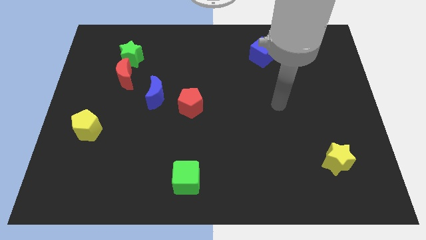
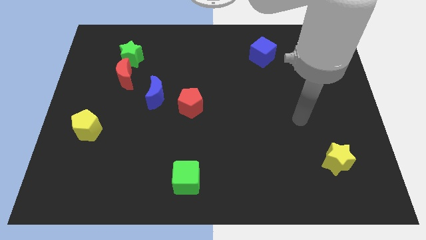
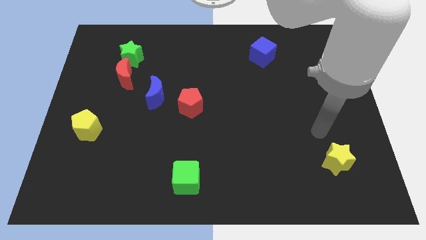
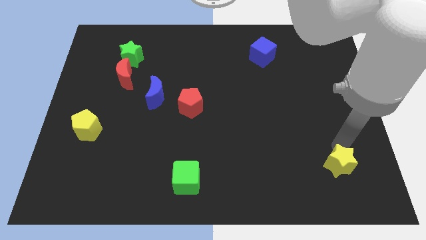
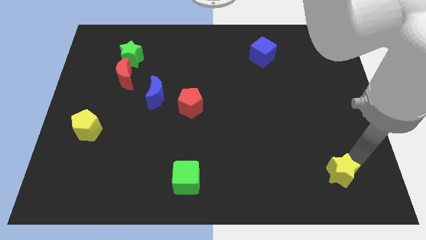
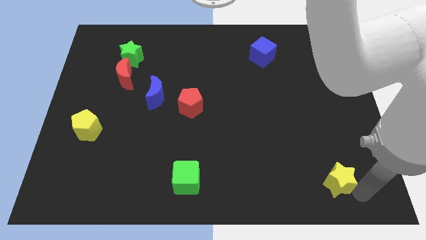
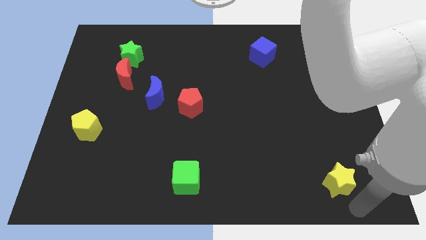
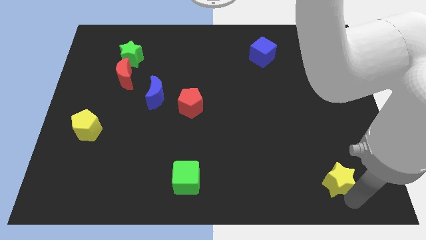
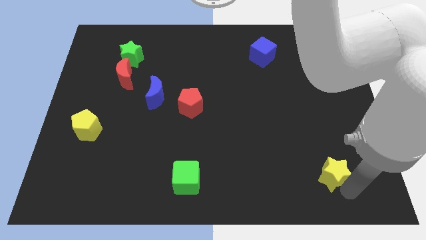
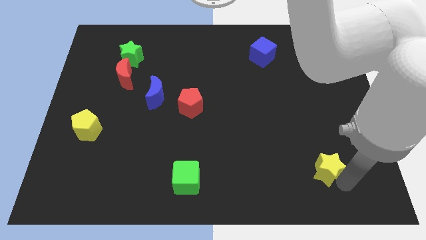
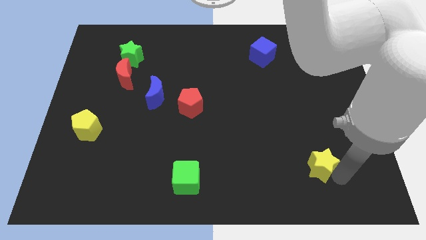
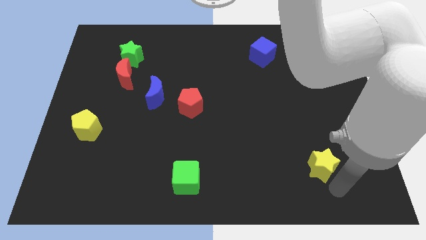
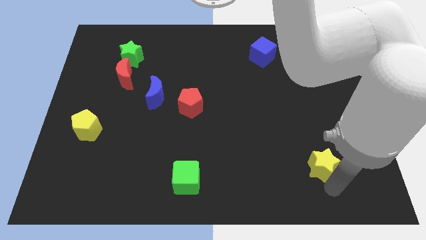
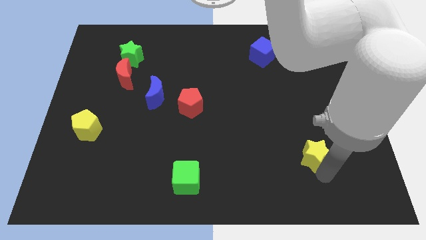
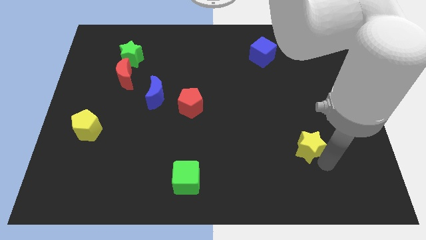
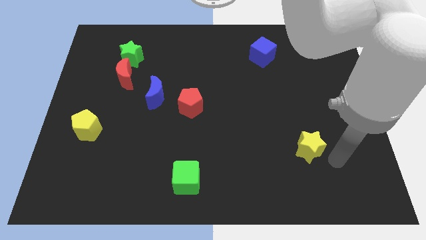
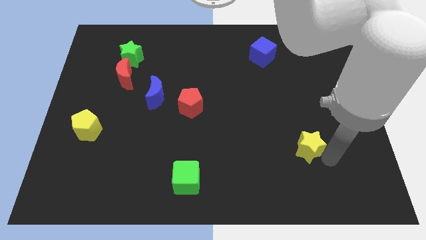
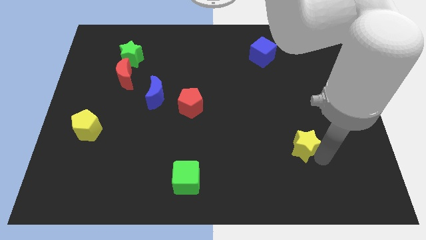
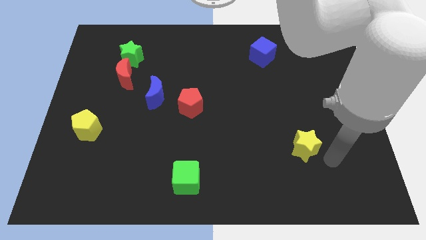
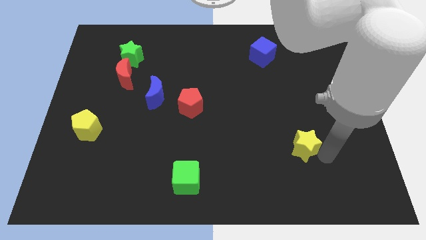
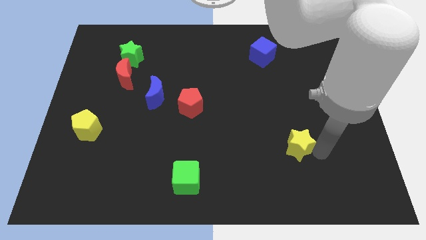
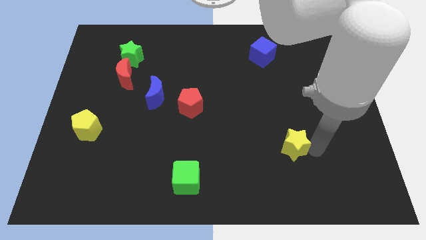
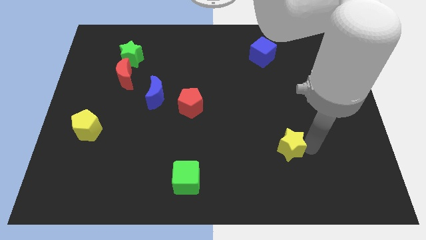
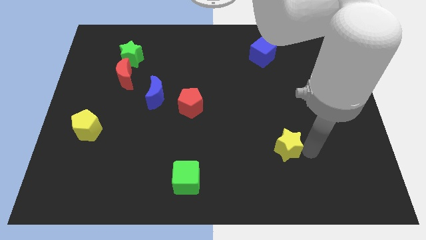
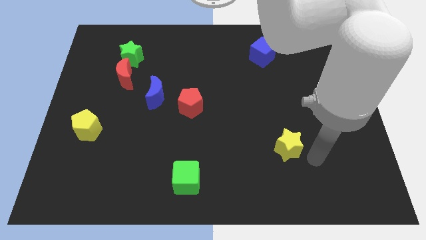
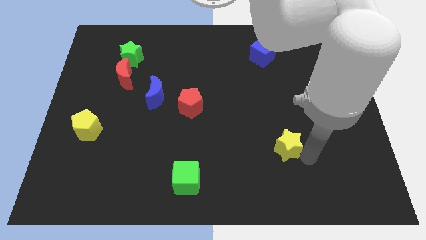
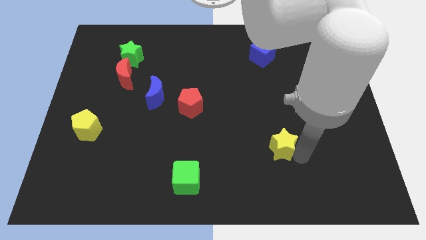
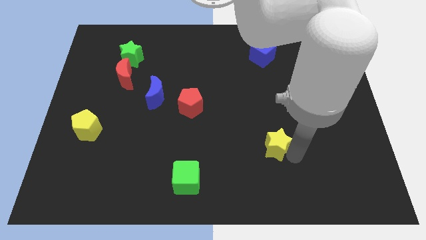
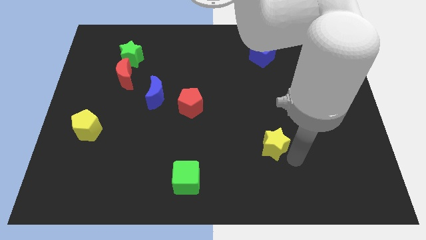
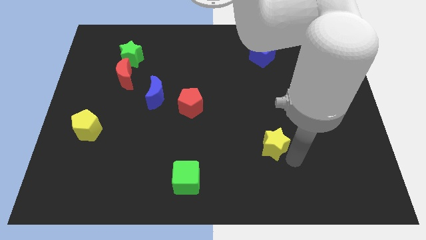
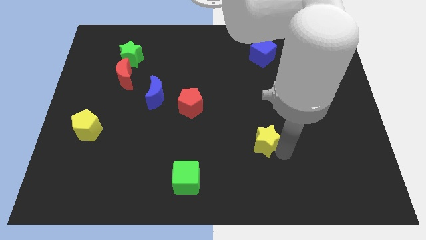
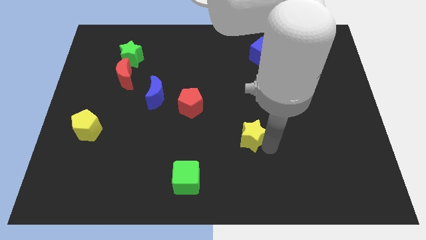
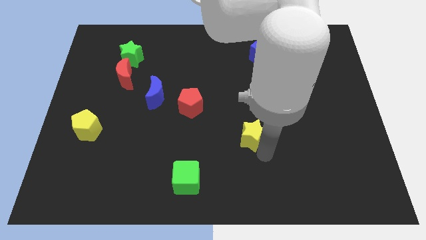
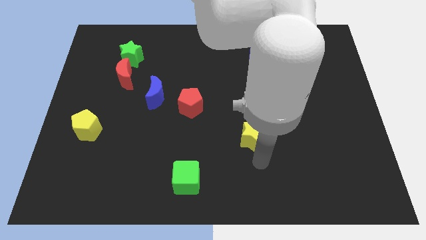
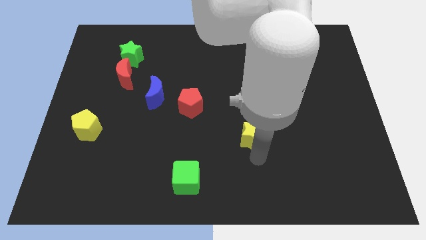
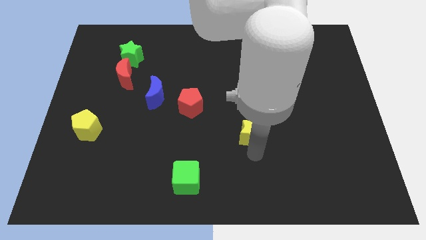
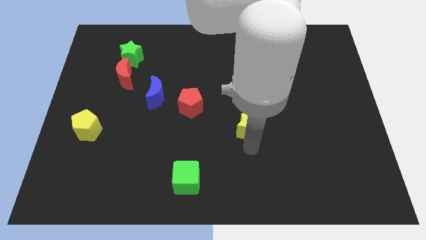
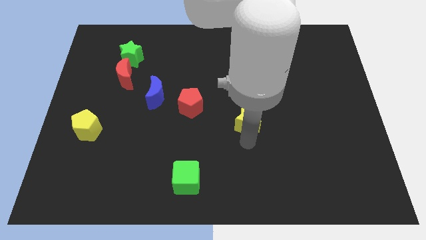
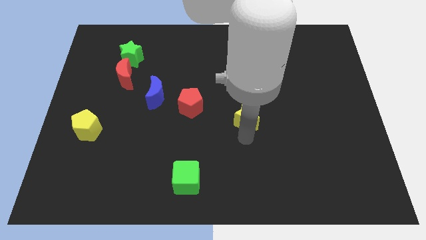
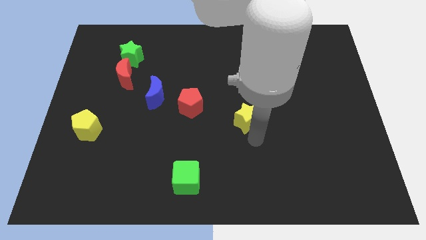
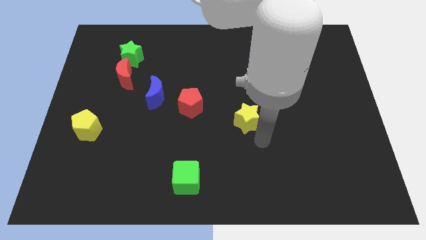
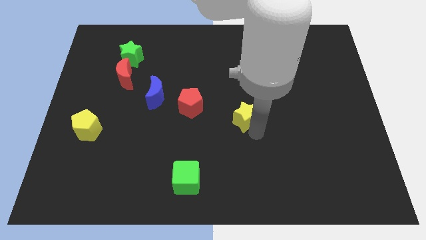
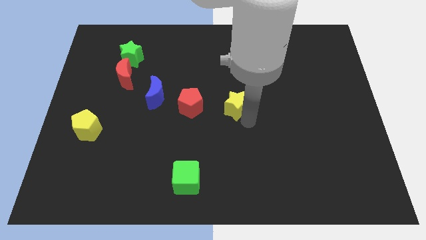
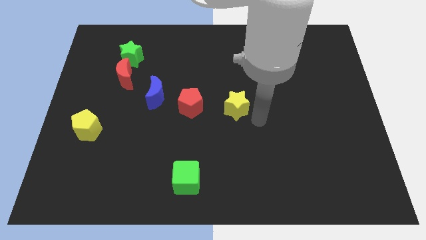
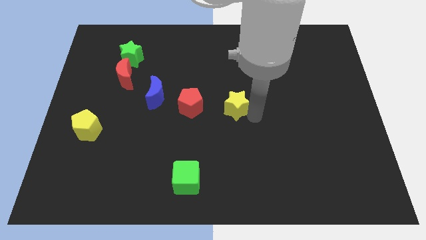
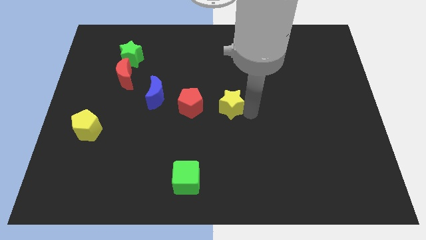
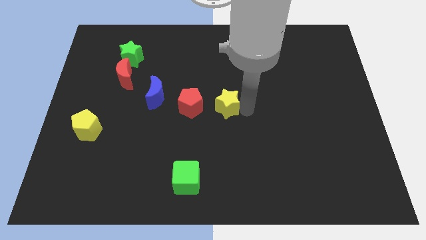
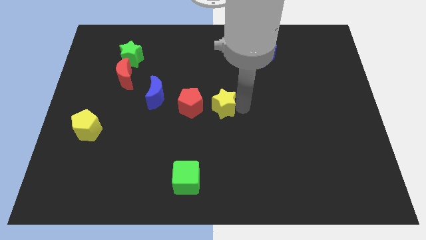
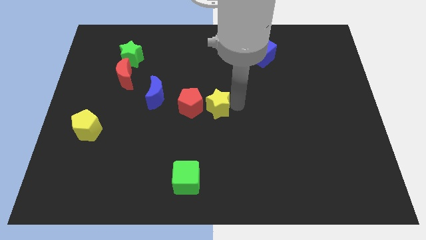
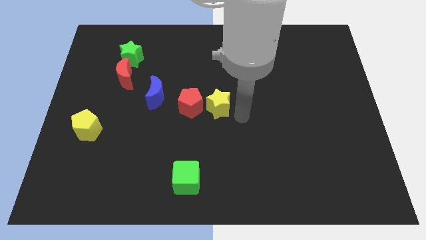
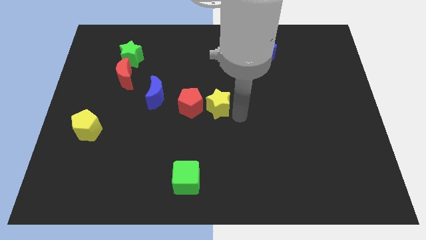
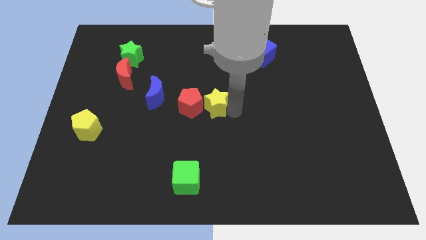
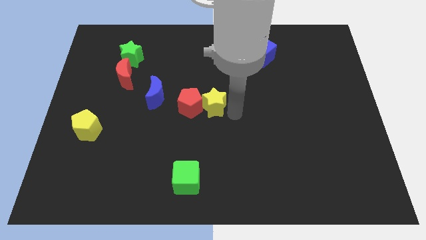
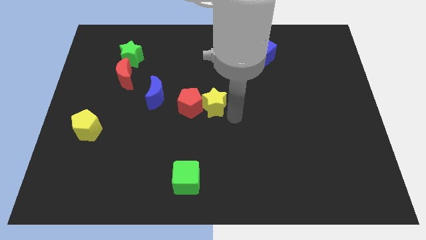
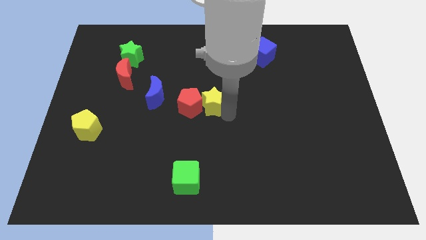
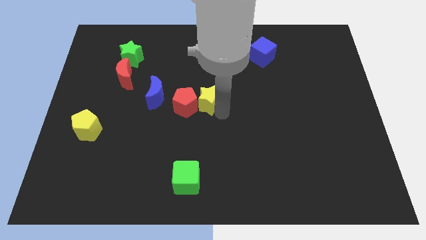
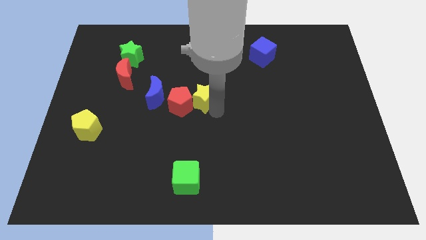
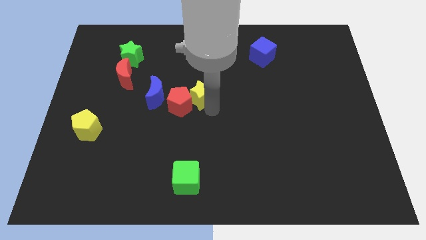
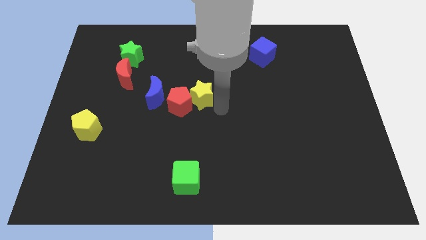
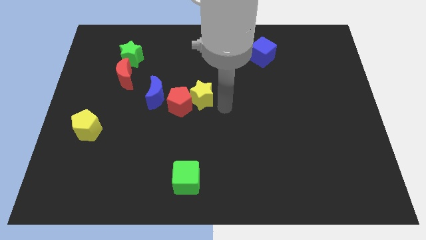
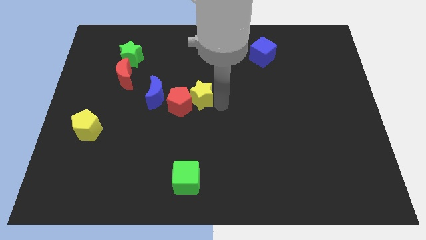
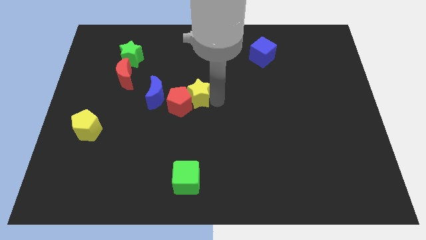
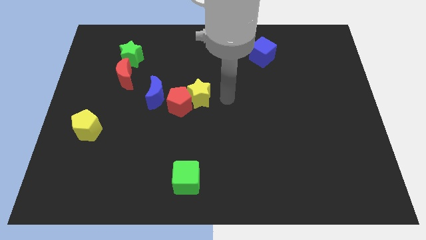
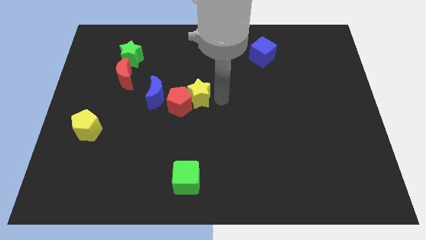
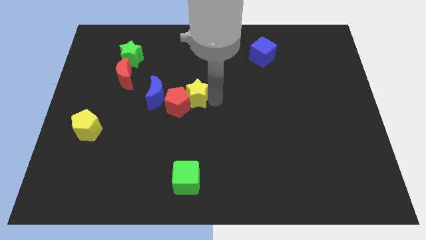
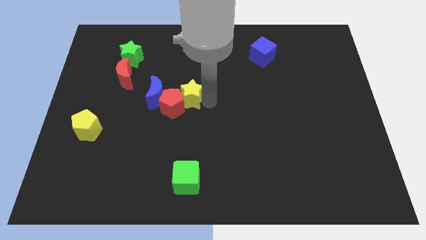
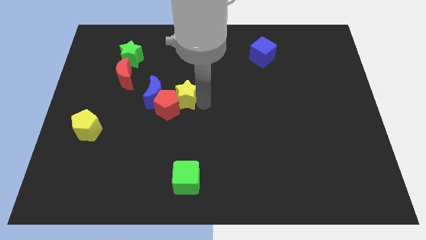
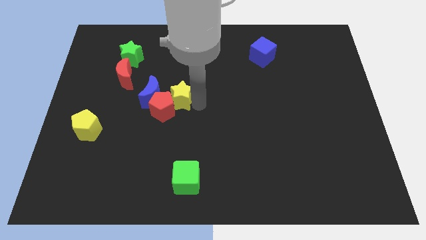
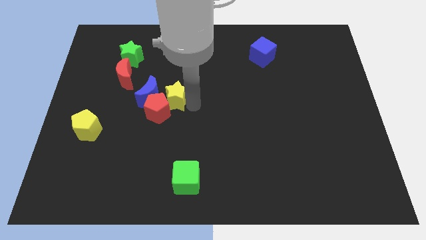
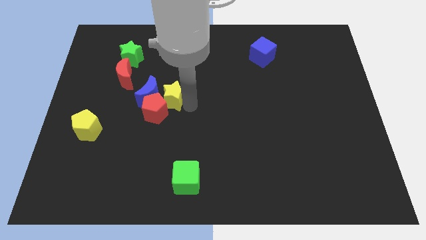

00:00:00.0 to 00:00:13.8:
slide the yellow star close to the blue moon

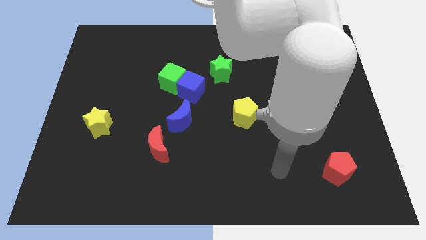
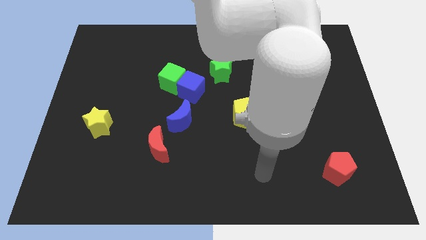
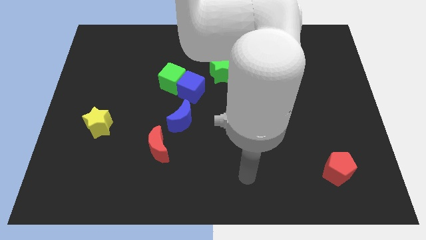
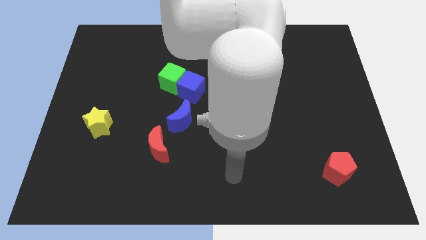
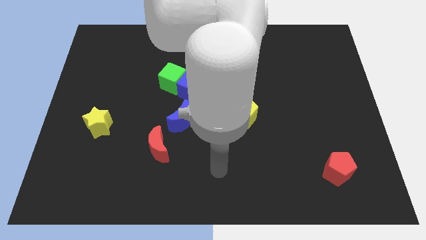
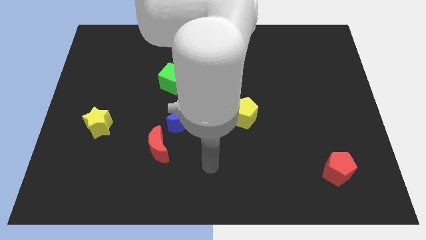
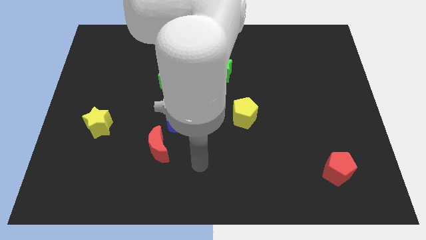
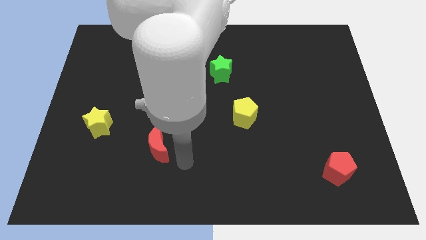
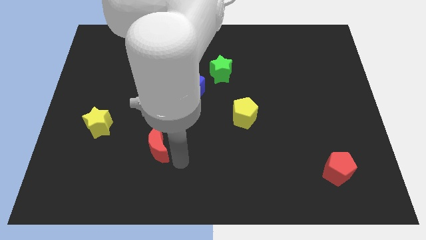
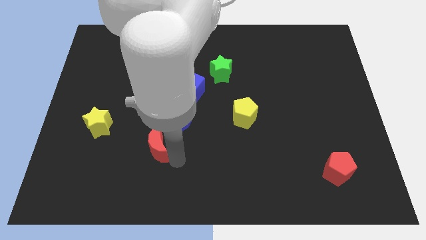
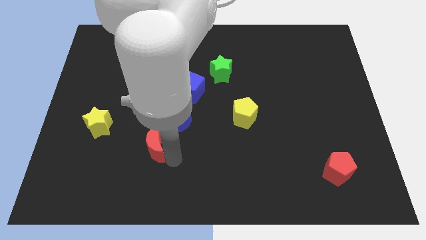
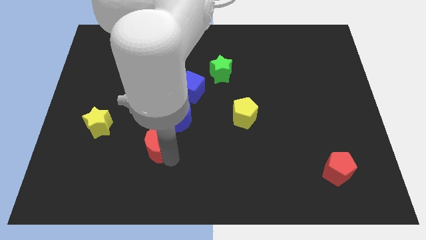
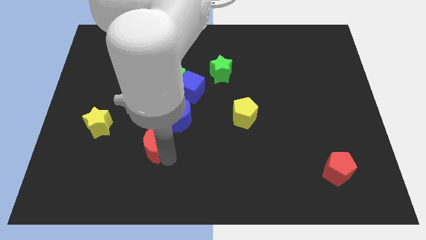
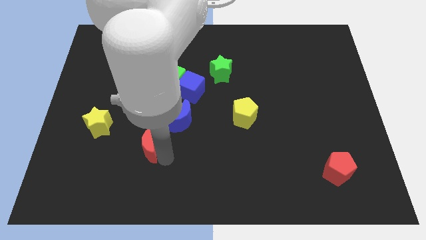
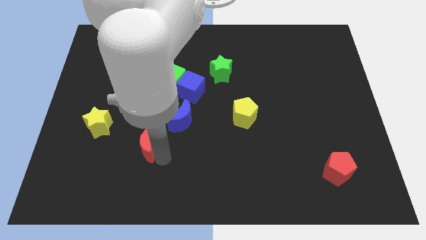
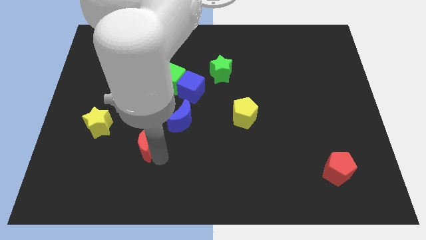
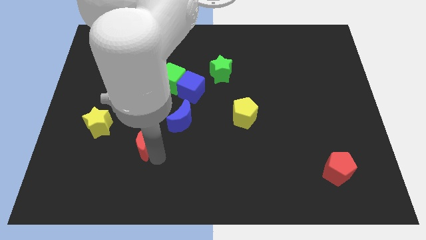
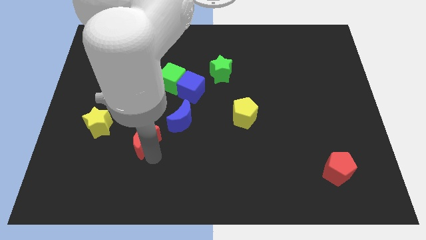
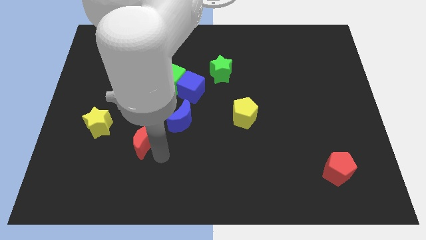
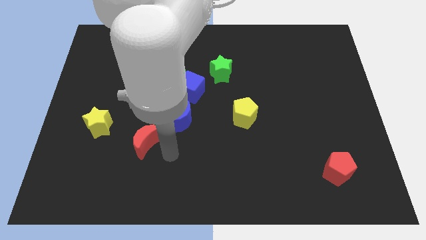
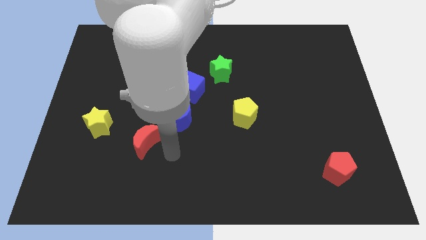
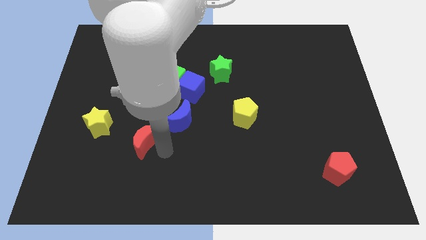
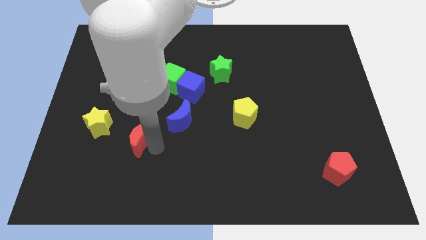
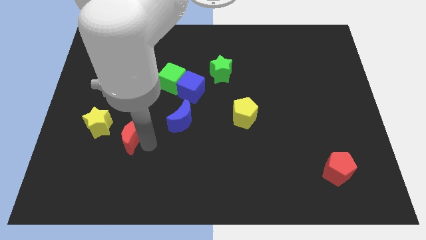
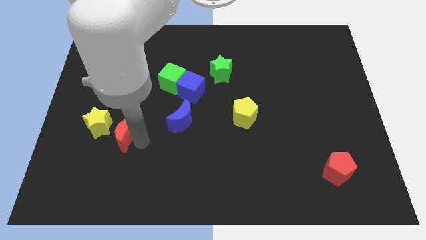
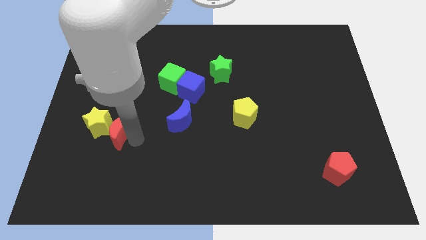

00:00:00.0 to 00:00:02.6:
move the red moon to the yellow star
